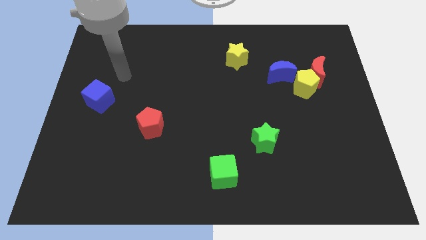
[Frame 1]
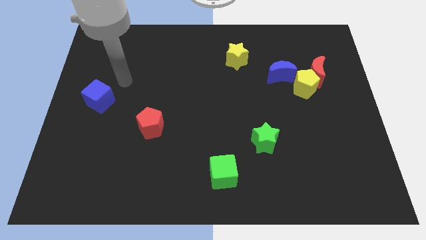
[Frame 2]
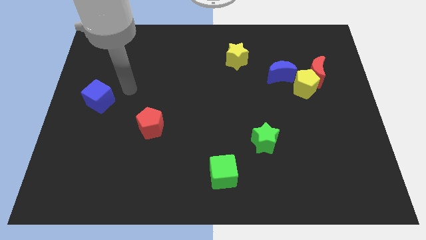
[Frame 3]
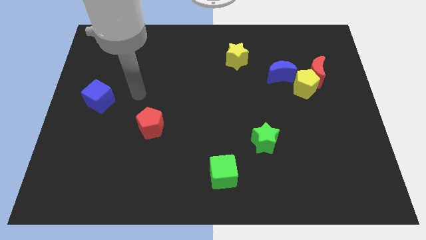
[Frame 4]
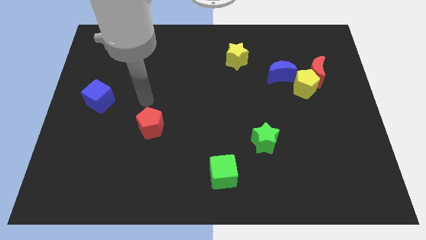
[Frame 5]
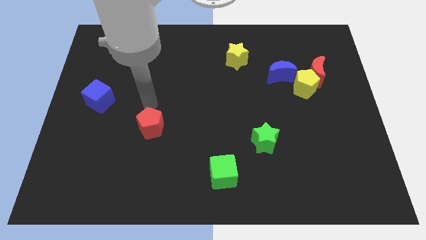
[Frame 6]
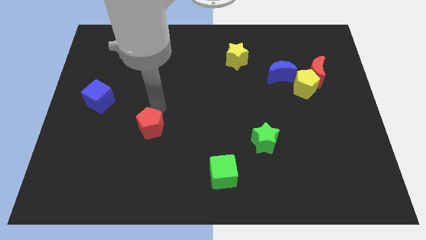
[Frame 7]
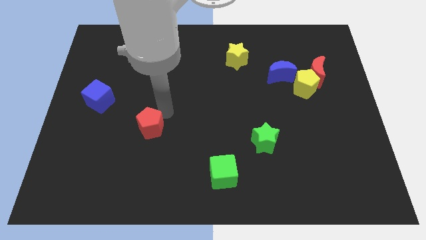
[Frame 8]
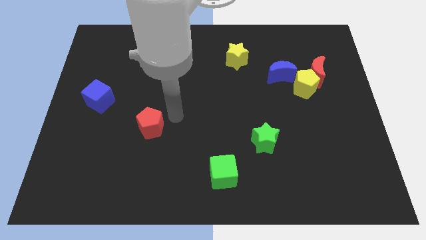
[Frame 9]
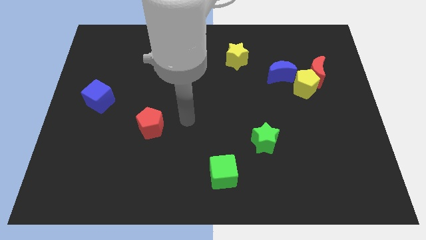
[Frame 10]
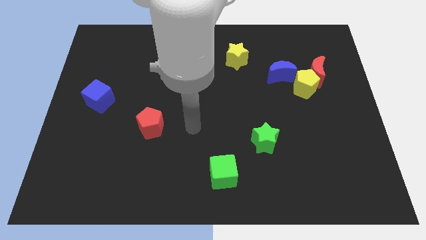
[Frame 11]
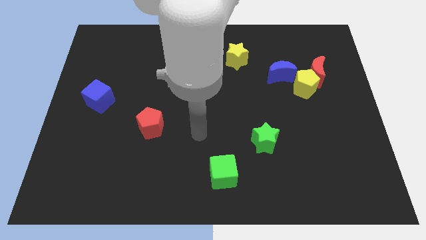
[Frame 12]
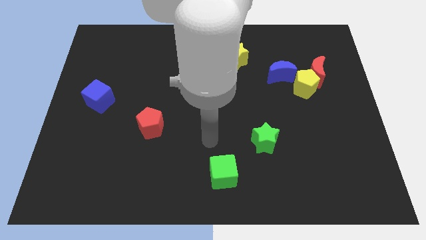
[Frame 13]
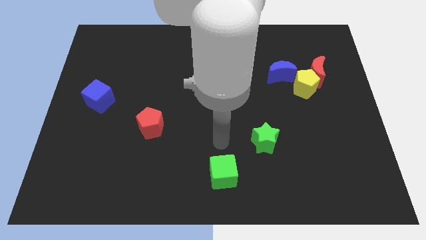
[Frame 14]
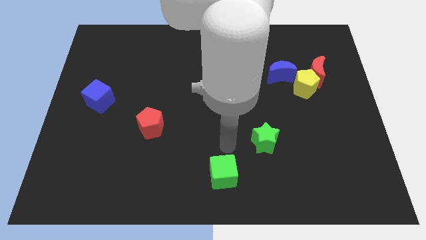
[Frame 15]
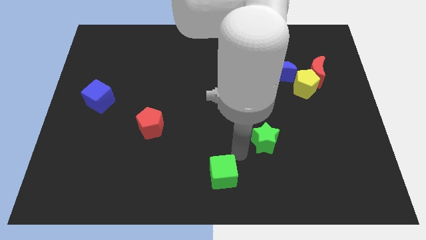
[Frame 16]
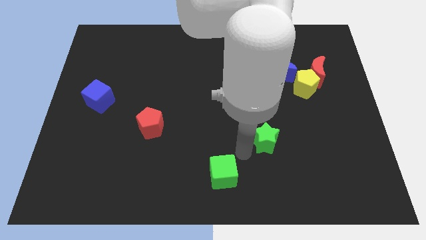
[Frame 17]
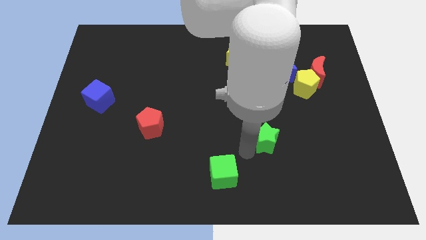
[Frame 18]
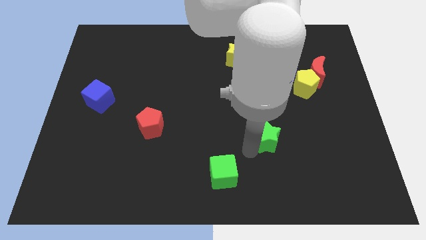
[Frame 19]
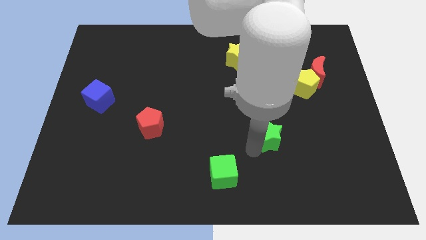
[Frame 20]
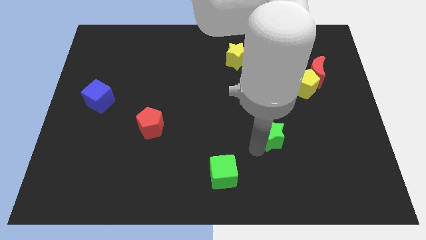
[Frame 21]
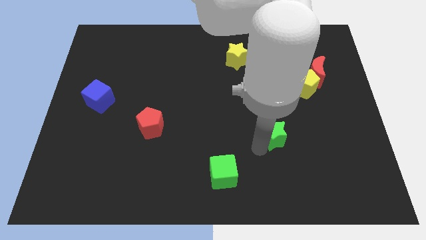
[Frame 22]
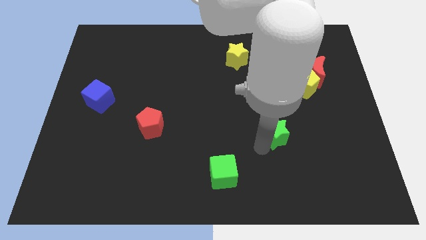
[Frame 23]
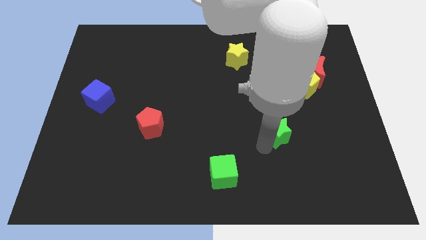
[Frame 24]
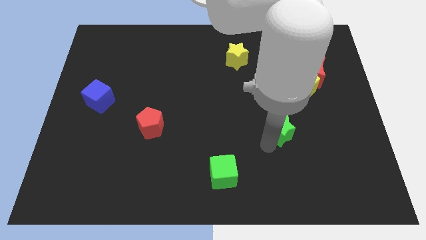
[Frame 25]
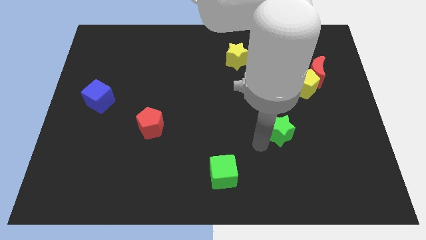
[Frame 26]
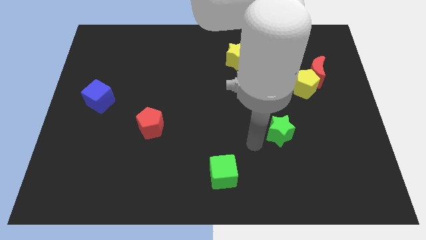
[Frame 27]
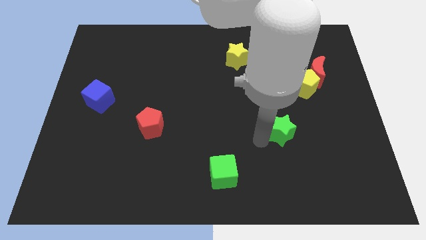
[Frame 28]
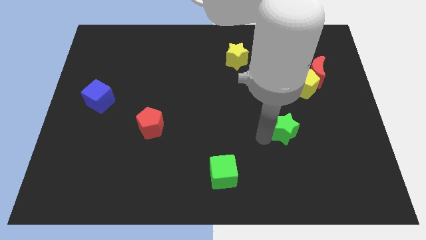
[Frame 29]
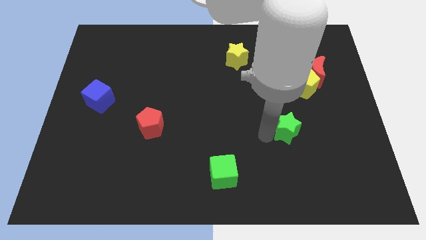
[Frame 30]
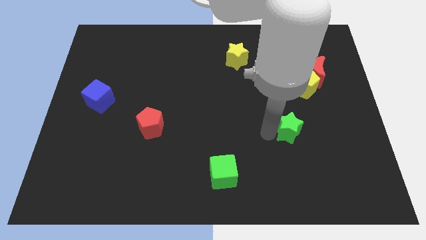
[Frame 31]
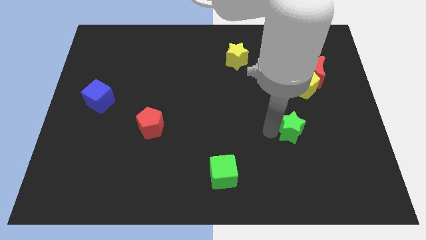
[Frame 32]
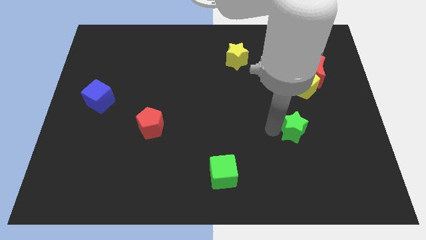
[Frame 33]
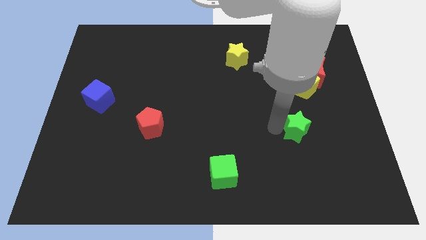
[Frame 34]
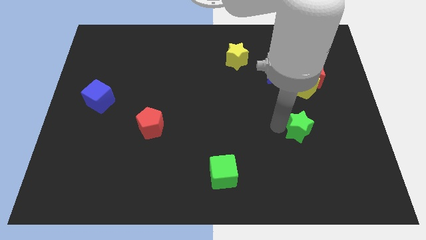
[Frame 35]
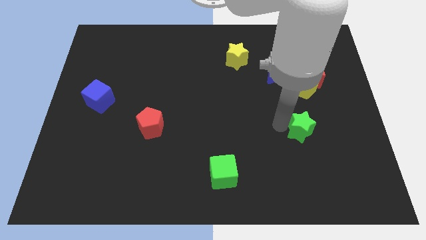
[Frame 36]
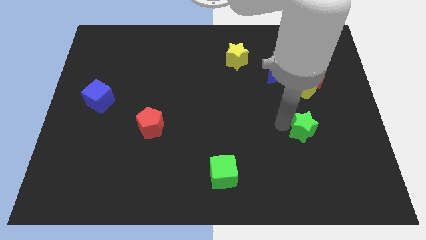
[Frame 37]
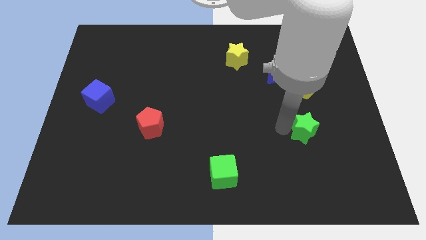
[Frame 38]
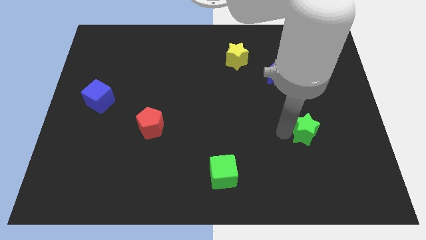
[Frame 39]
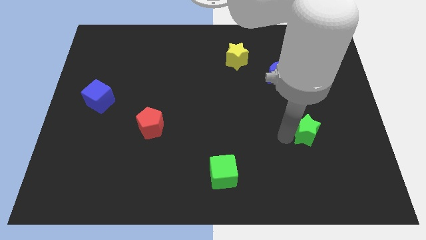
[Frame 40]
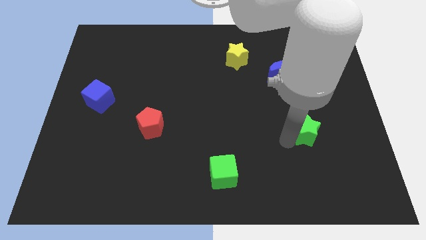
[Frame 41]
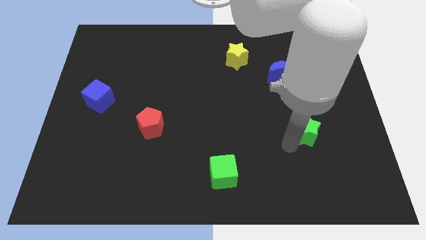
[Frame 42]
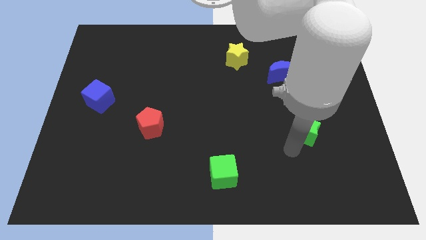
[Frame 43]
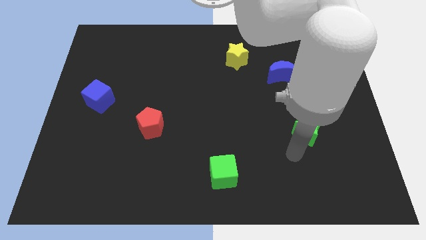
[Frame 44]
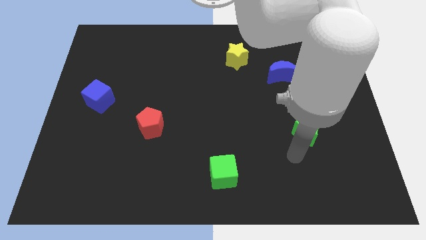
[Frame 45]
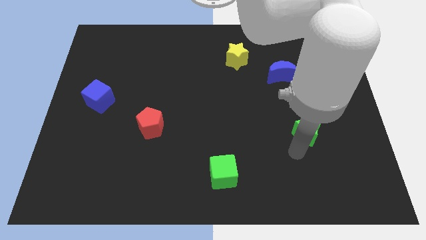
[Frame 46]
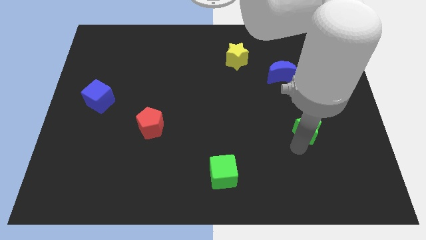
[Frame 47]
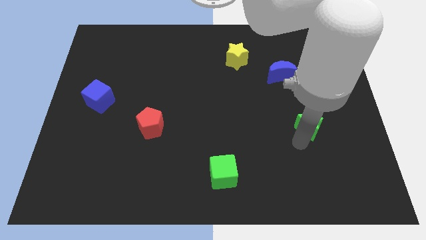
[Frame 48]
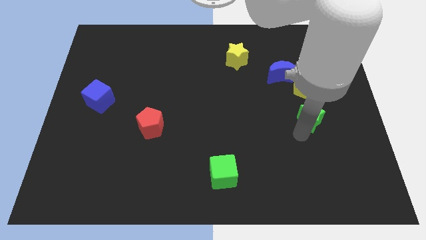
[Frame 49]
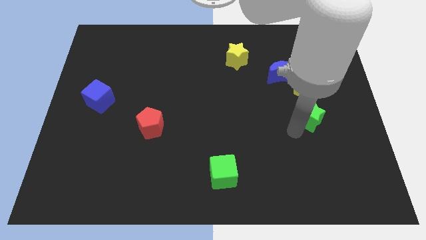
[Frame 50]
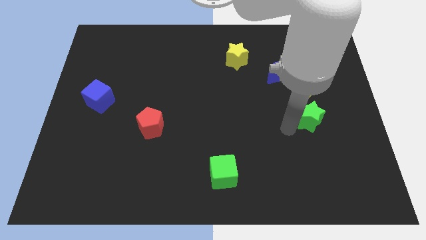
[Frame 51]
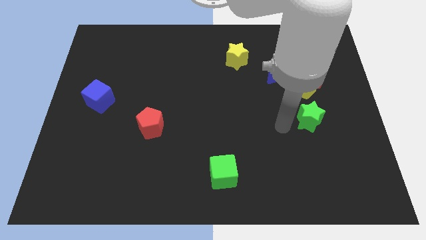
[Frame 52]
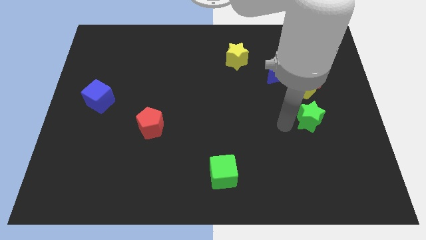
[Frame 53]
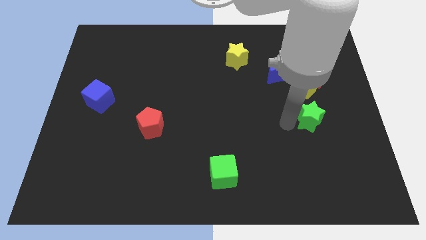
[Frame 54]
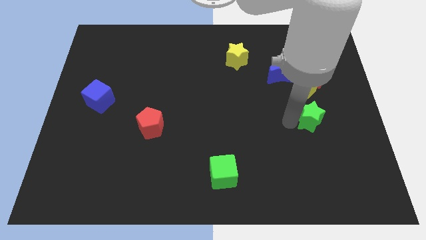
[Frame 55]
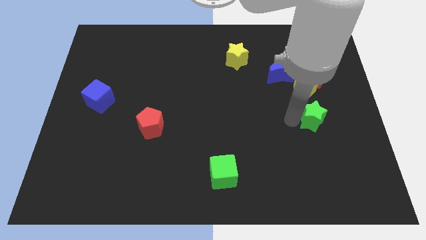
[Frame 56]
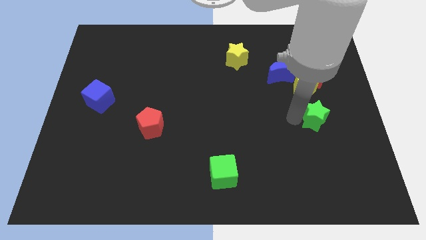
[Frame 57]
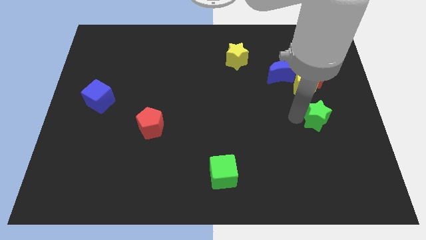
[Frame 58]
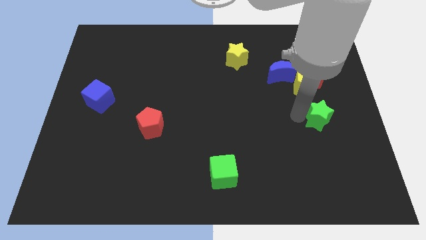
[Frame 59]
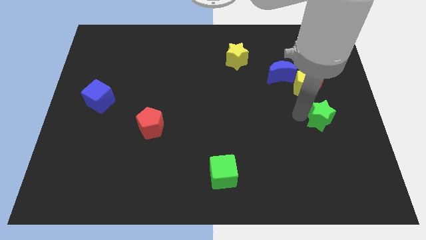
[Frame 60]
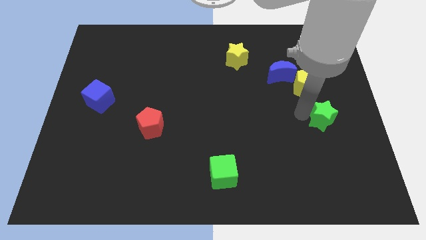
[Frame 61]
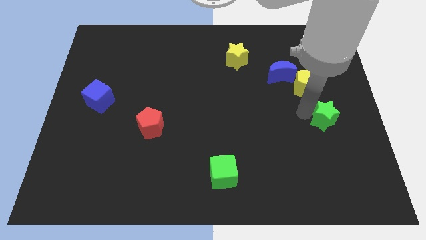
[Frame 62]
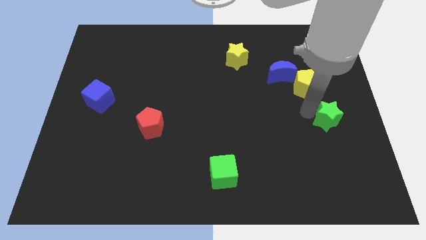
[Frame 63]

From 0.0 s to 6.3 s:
push the green star to the right side of the board

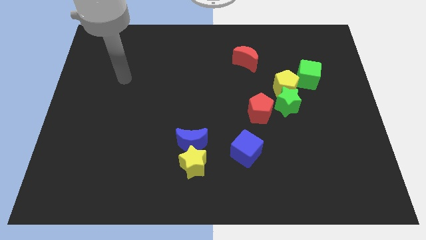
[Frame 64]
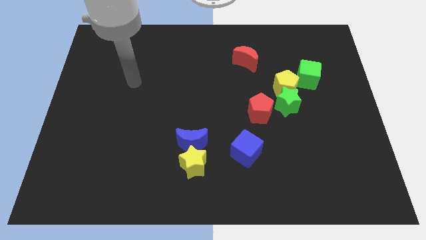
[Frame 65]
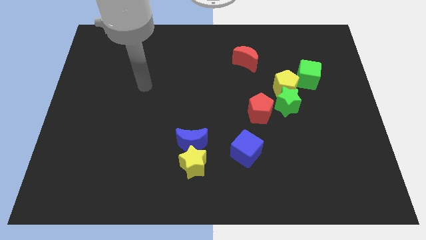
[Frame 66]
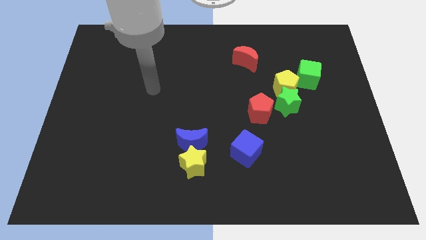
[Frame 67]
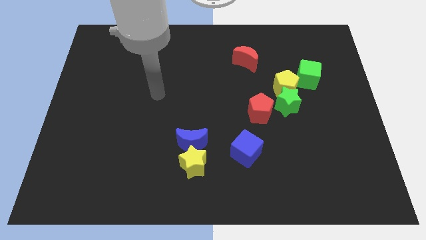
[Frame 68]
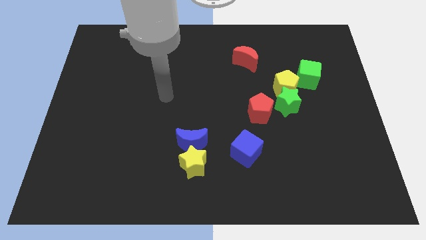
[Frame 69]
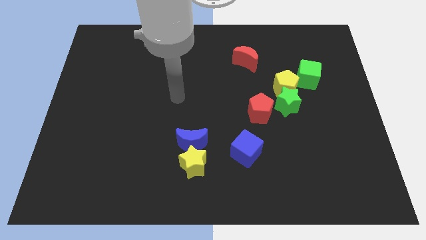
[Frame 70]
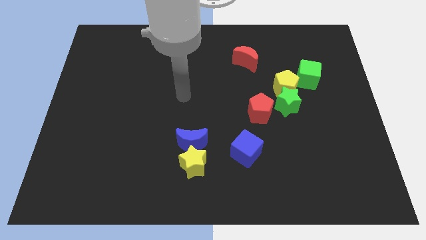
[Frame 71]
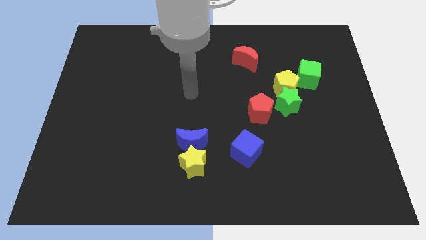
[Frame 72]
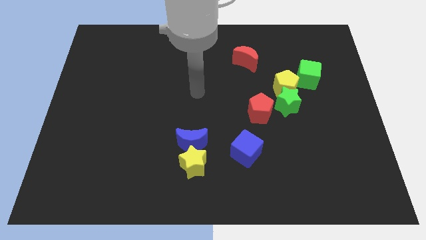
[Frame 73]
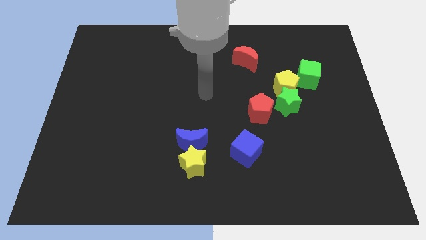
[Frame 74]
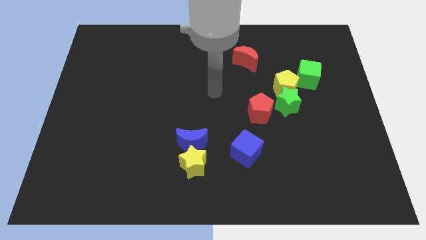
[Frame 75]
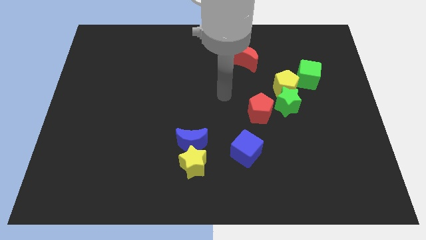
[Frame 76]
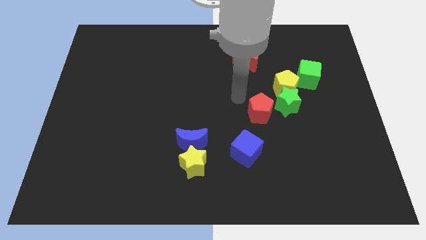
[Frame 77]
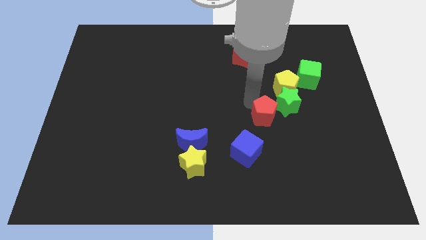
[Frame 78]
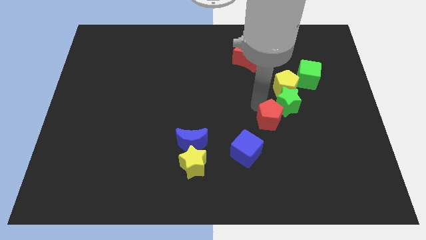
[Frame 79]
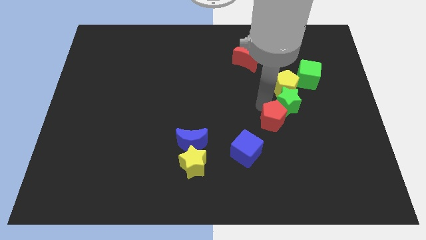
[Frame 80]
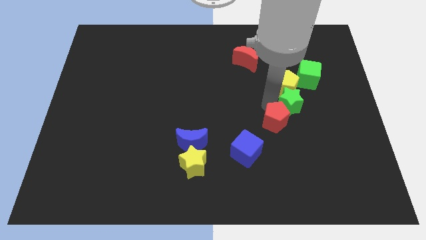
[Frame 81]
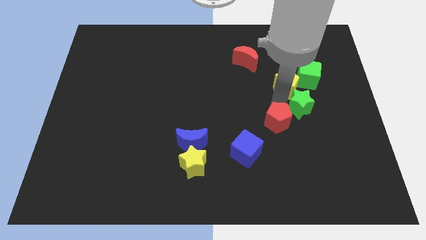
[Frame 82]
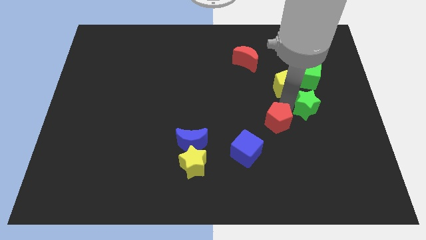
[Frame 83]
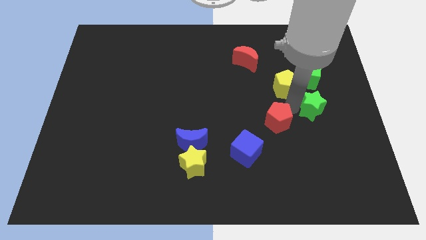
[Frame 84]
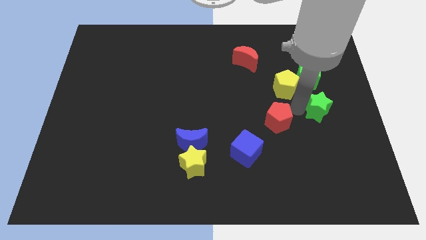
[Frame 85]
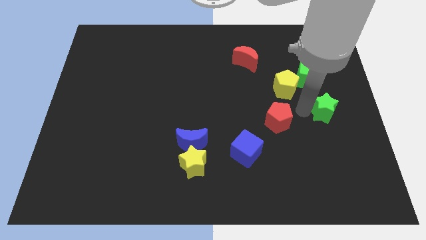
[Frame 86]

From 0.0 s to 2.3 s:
put the green star to the right side
